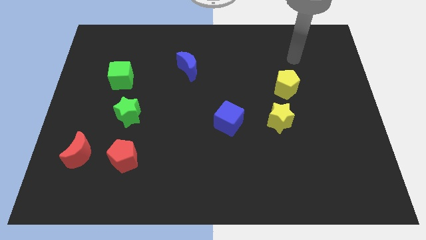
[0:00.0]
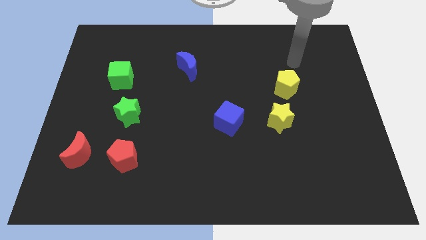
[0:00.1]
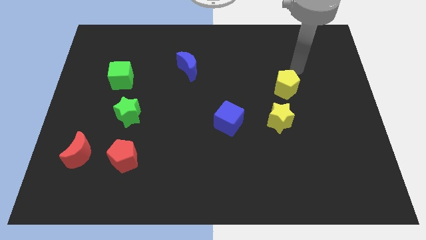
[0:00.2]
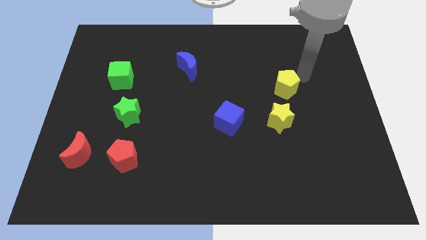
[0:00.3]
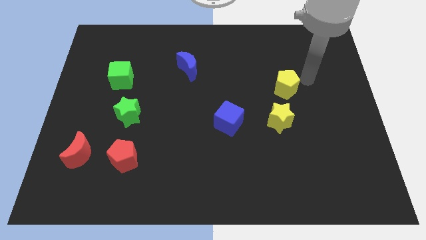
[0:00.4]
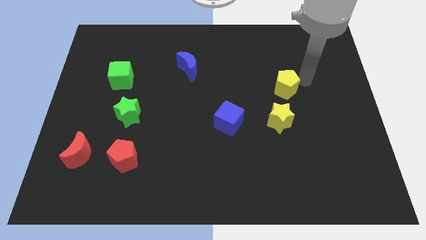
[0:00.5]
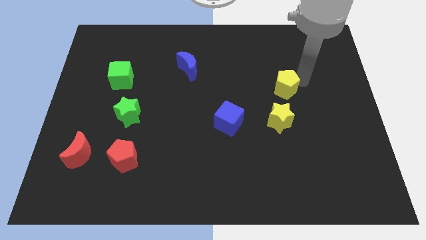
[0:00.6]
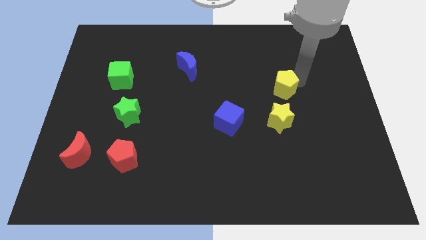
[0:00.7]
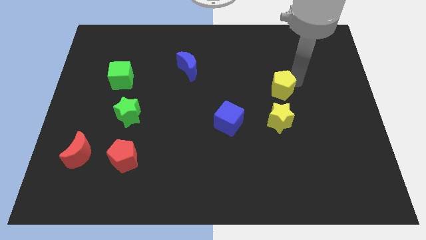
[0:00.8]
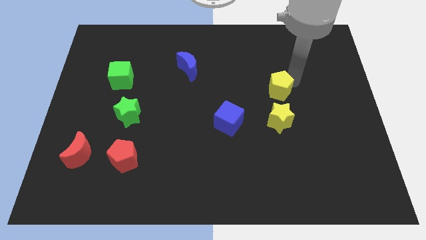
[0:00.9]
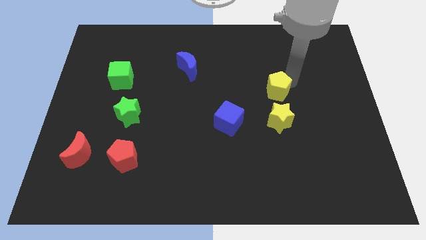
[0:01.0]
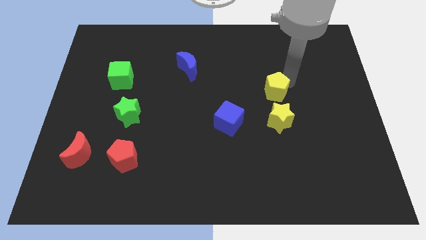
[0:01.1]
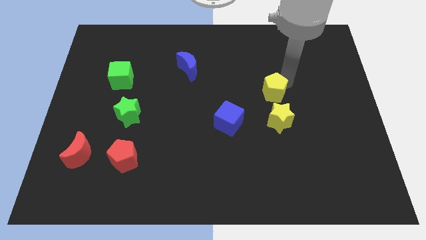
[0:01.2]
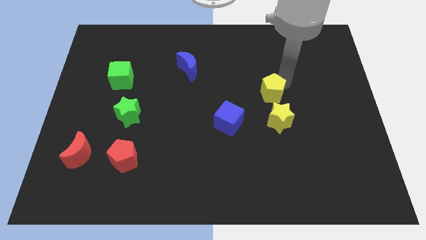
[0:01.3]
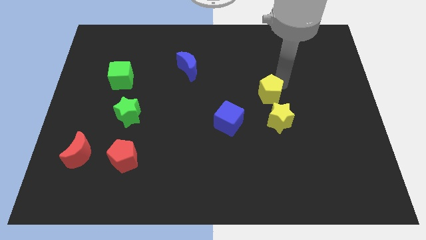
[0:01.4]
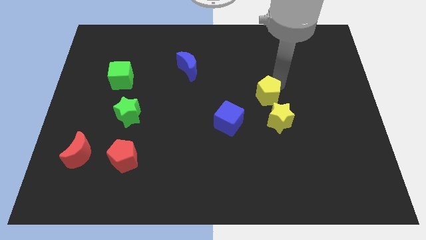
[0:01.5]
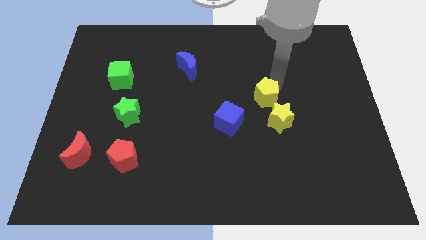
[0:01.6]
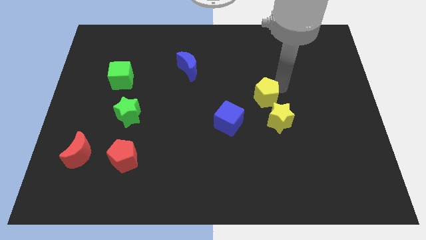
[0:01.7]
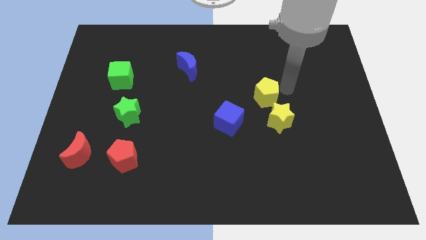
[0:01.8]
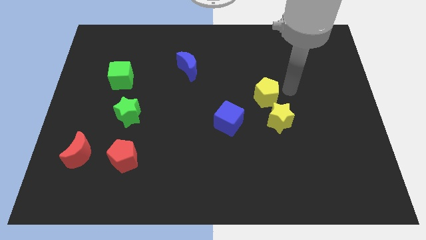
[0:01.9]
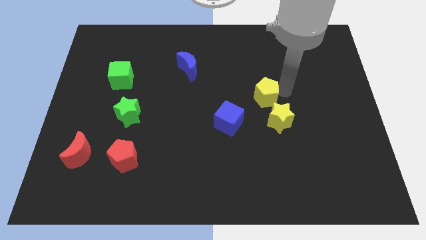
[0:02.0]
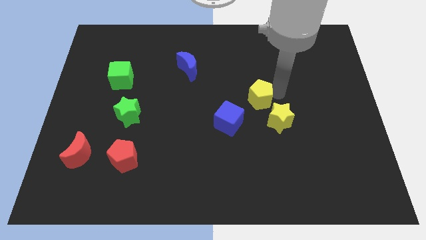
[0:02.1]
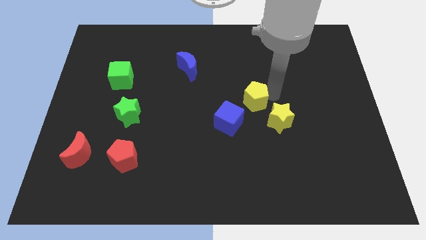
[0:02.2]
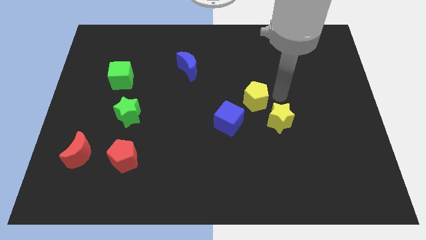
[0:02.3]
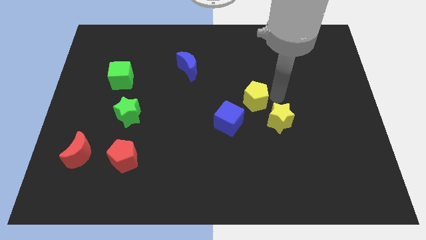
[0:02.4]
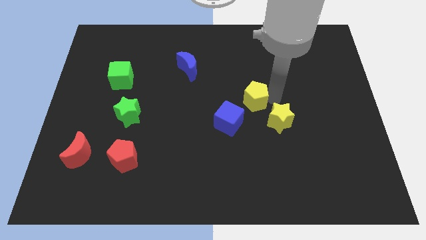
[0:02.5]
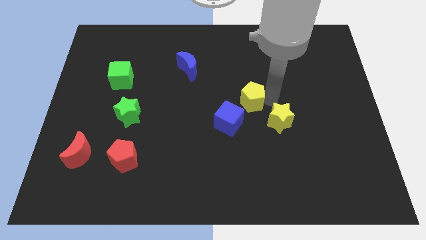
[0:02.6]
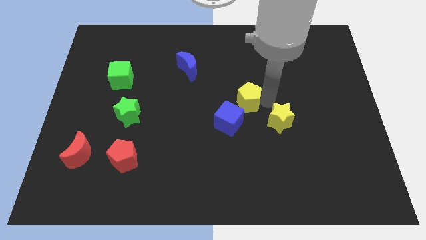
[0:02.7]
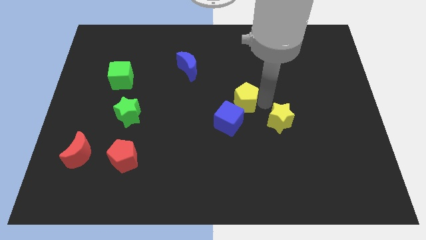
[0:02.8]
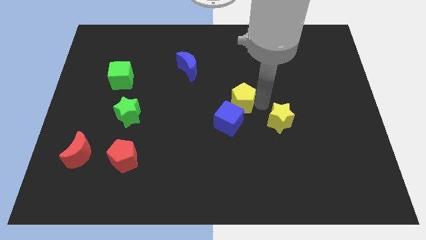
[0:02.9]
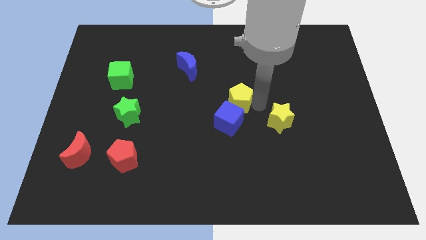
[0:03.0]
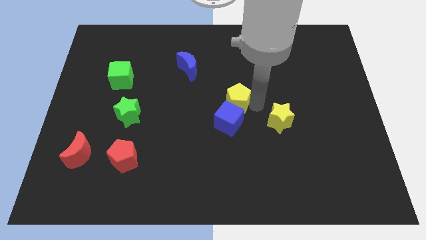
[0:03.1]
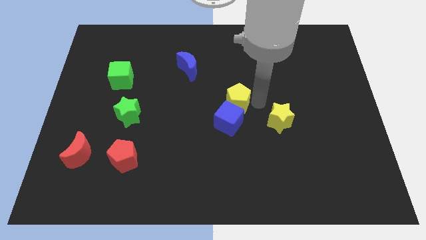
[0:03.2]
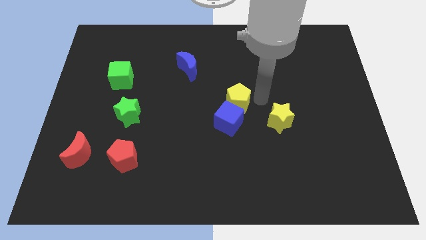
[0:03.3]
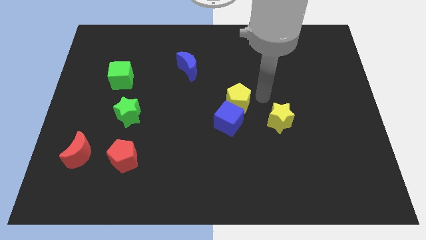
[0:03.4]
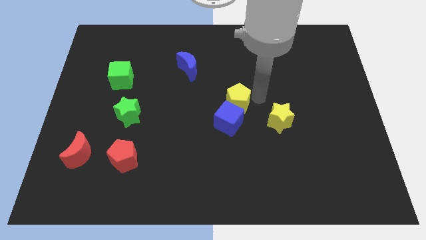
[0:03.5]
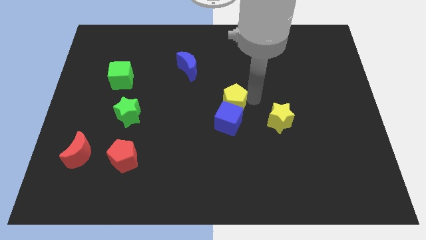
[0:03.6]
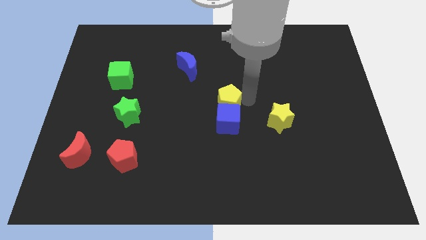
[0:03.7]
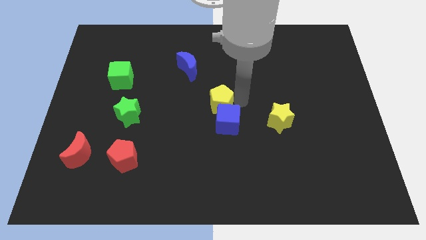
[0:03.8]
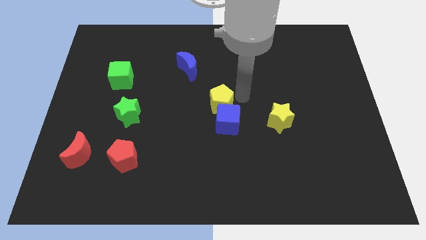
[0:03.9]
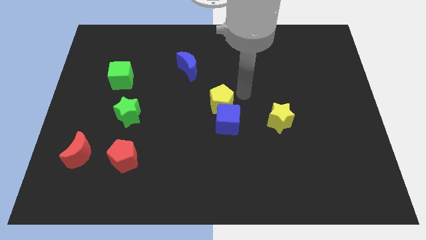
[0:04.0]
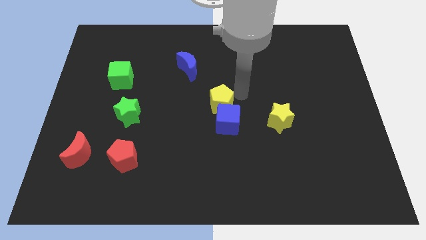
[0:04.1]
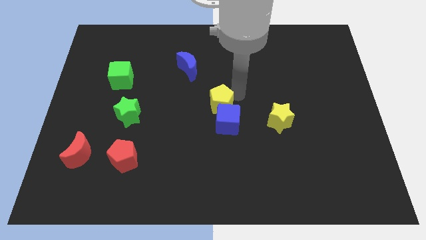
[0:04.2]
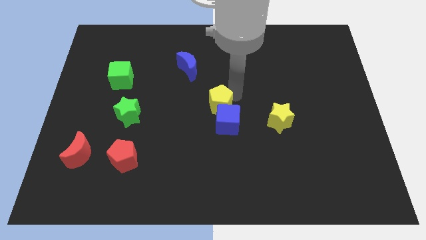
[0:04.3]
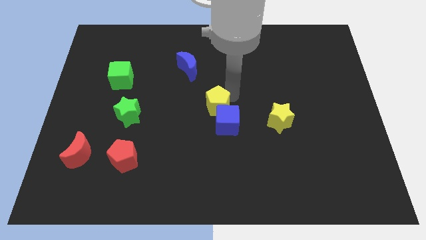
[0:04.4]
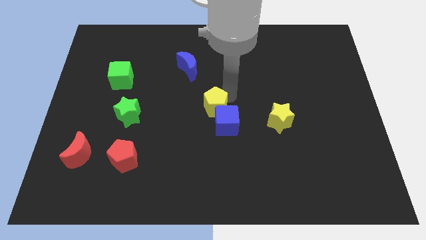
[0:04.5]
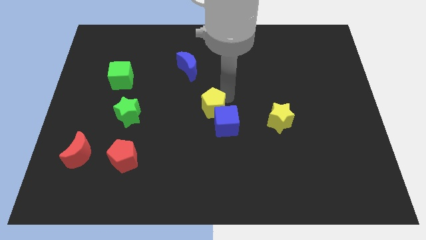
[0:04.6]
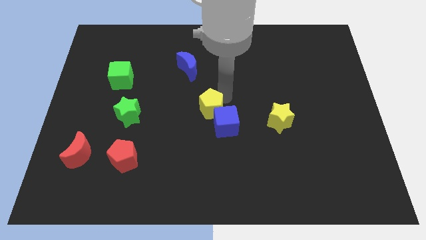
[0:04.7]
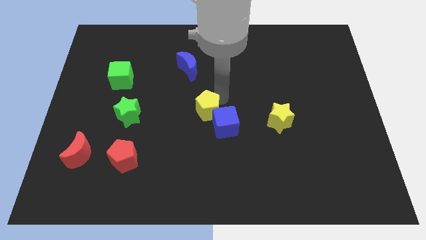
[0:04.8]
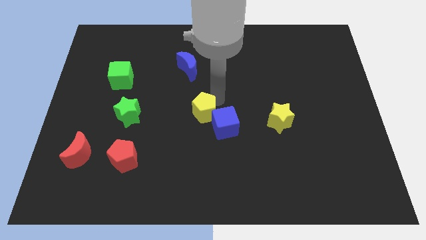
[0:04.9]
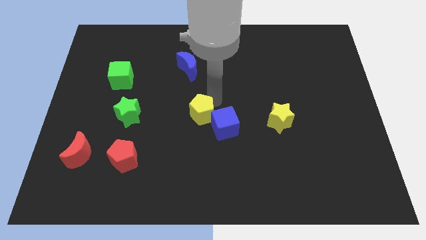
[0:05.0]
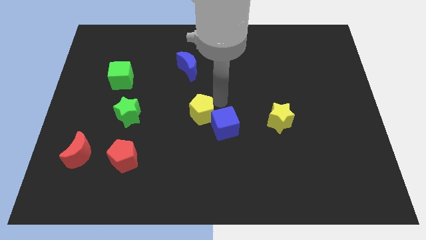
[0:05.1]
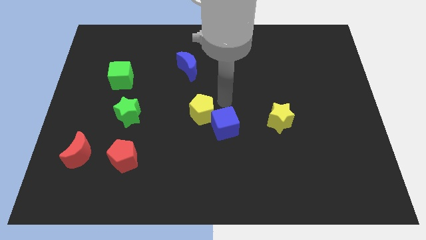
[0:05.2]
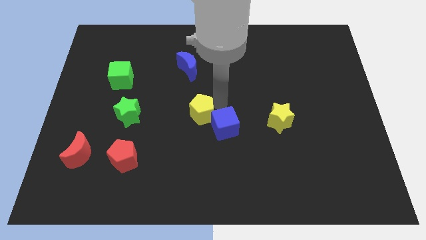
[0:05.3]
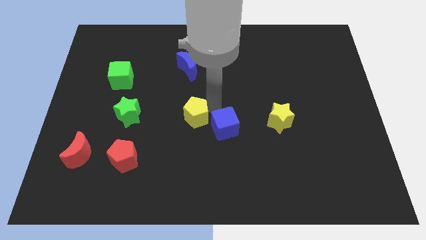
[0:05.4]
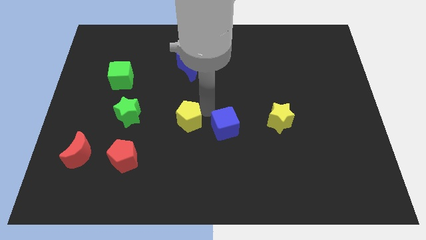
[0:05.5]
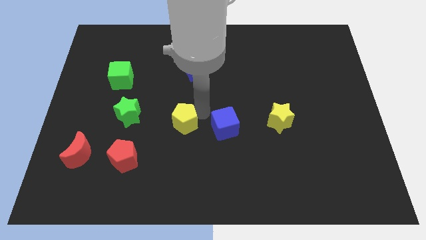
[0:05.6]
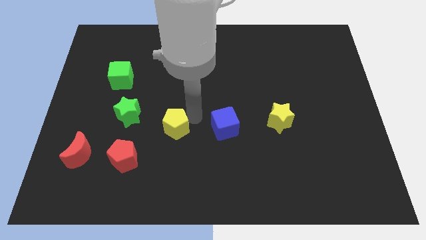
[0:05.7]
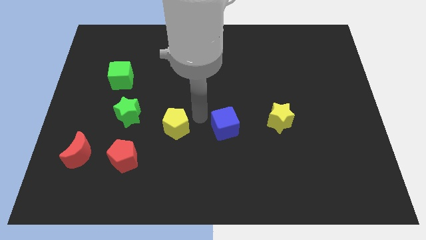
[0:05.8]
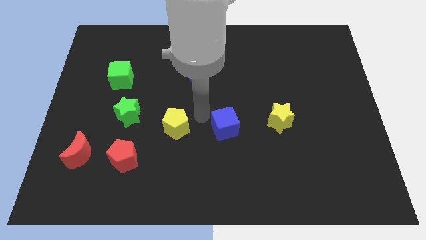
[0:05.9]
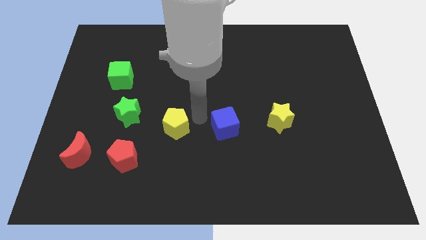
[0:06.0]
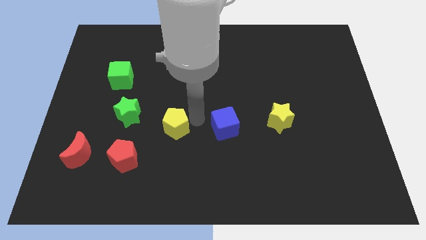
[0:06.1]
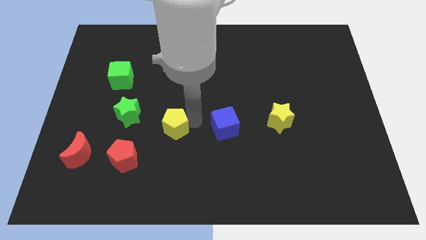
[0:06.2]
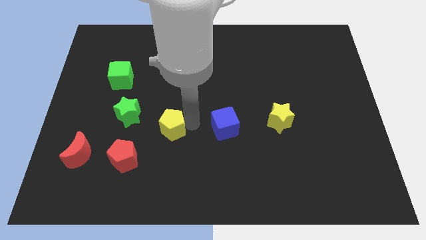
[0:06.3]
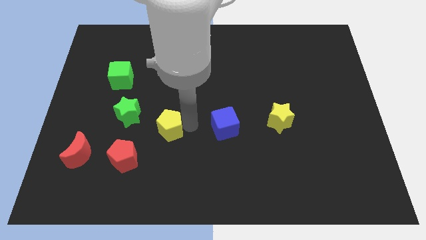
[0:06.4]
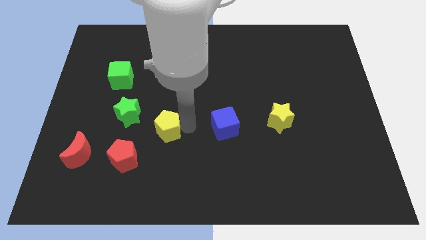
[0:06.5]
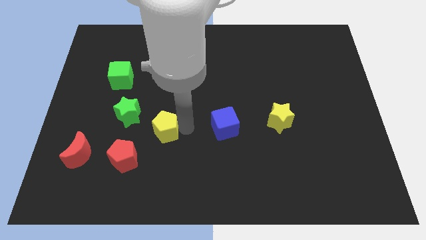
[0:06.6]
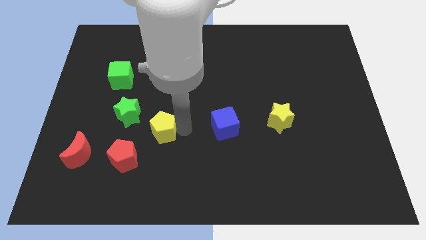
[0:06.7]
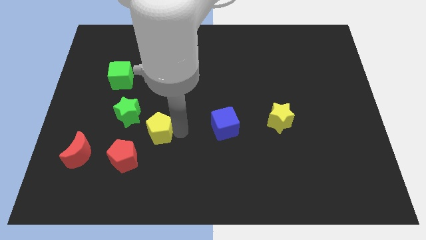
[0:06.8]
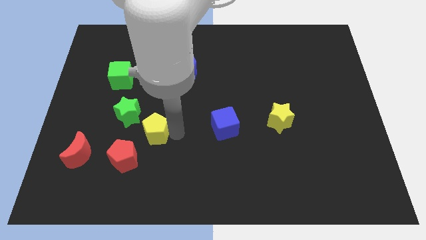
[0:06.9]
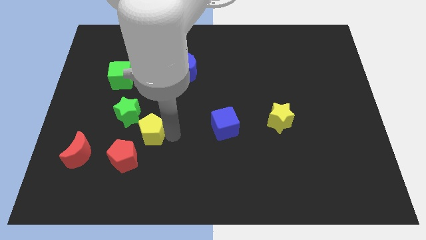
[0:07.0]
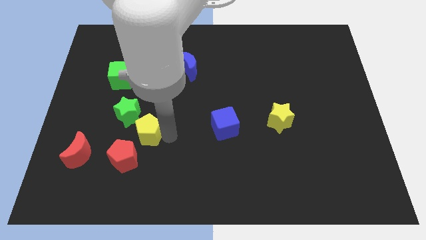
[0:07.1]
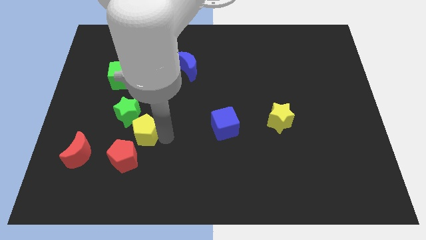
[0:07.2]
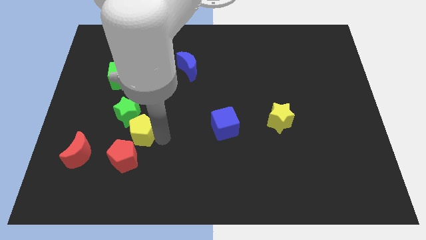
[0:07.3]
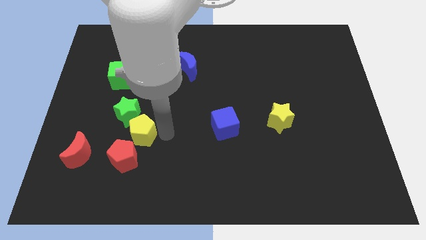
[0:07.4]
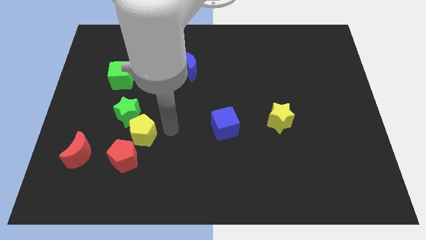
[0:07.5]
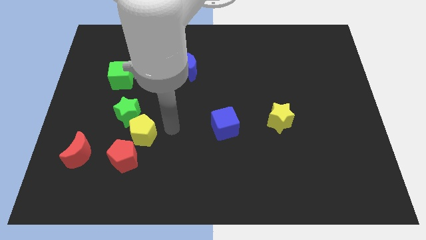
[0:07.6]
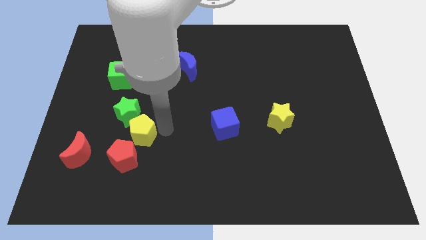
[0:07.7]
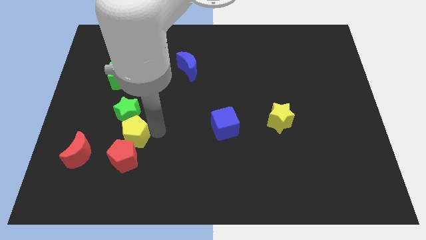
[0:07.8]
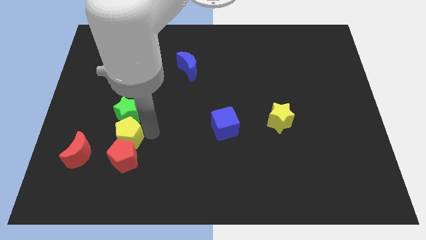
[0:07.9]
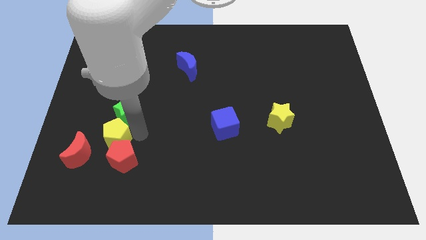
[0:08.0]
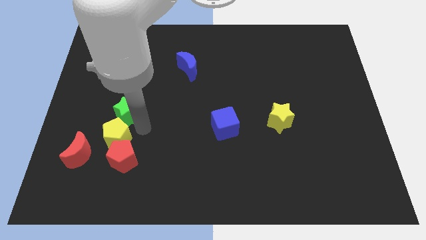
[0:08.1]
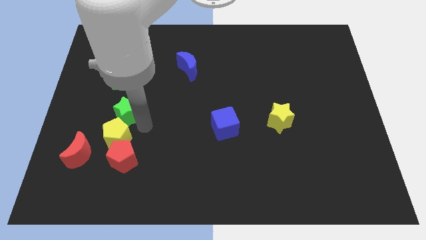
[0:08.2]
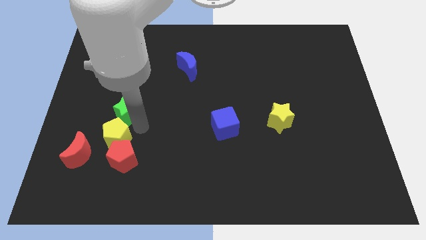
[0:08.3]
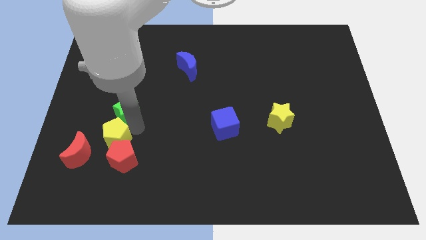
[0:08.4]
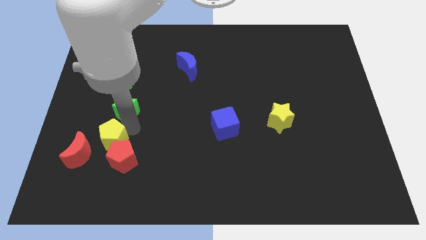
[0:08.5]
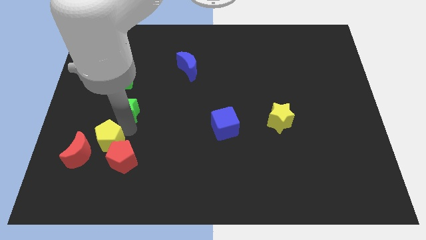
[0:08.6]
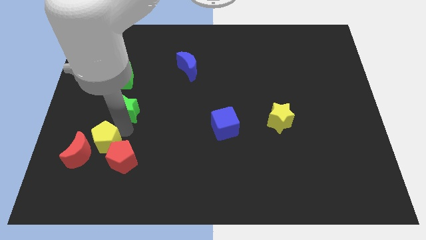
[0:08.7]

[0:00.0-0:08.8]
move the yellow pentagon towards the red moon
